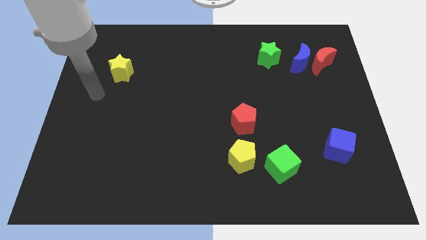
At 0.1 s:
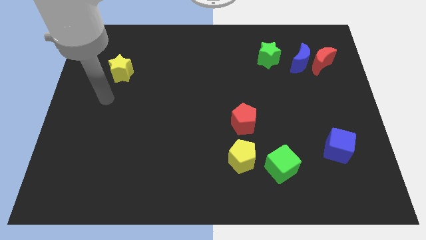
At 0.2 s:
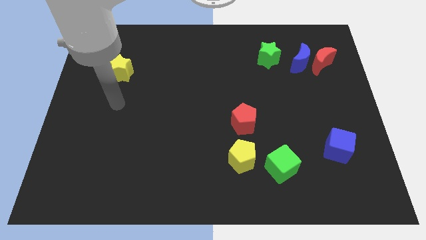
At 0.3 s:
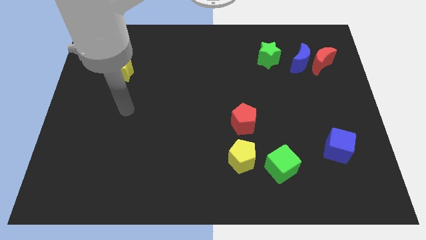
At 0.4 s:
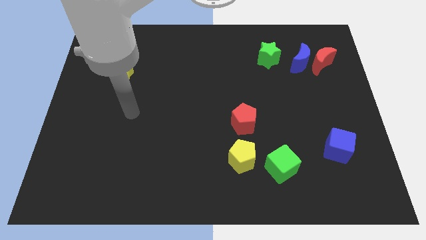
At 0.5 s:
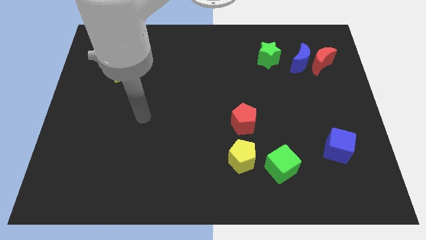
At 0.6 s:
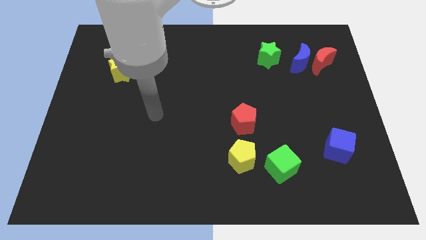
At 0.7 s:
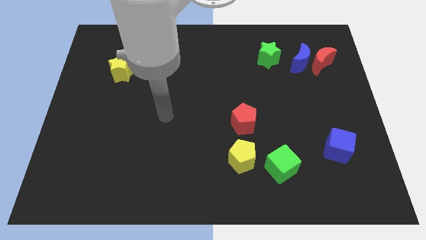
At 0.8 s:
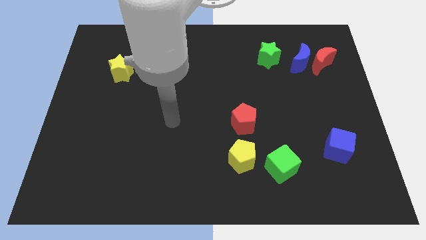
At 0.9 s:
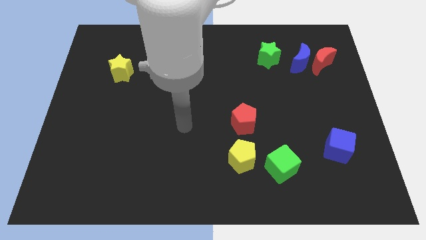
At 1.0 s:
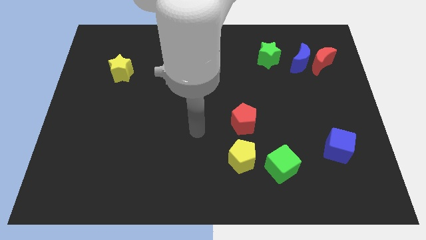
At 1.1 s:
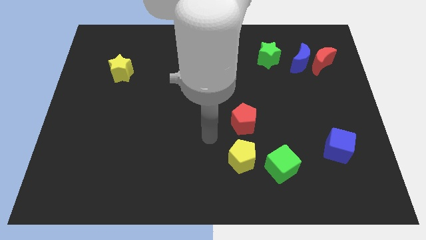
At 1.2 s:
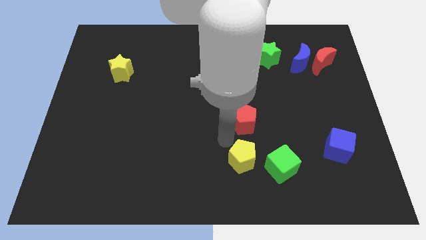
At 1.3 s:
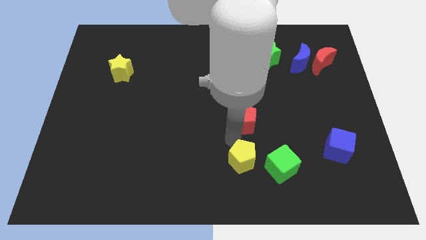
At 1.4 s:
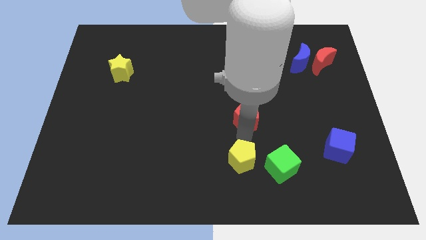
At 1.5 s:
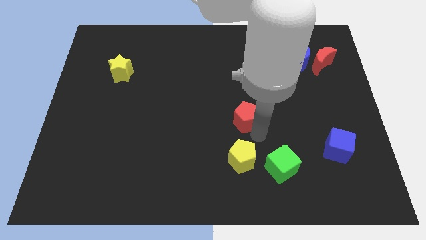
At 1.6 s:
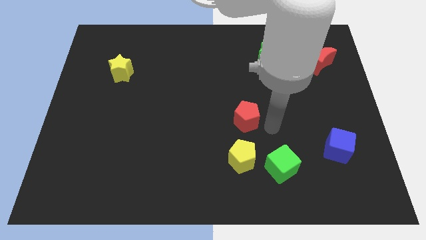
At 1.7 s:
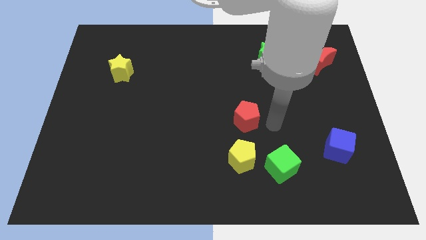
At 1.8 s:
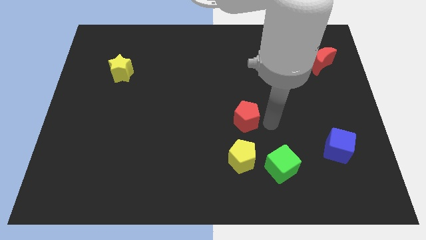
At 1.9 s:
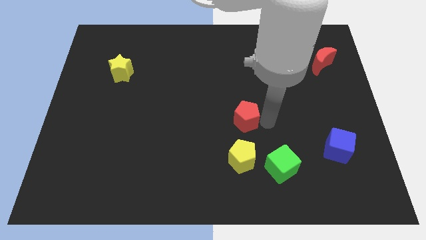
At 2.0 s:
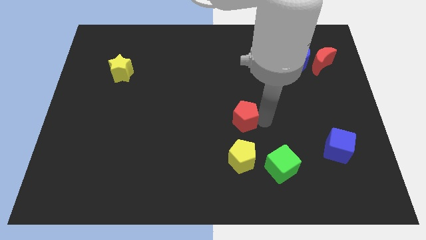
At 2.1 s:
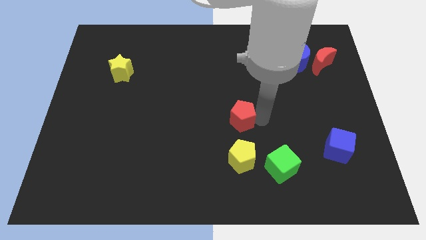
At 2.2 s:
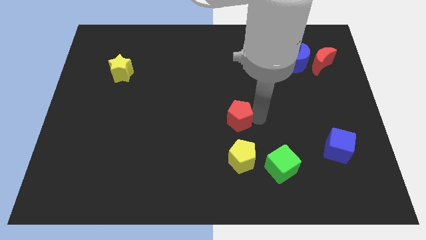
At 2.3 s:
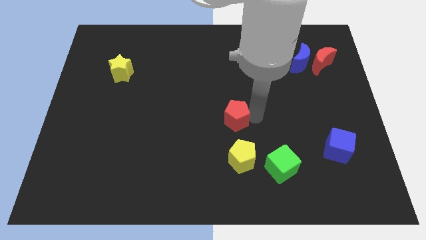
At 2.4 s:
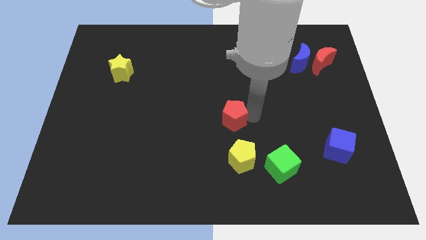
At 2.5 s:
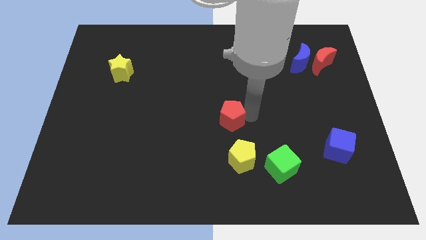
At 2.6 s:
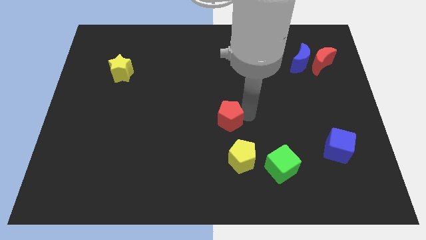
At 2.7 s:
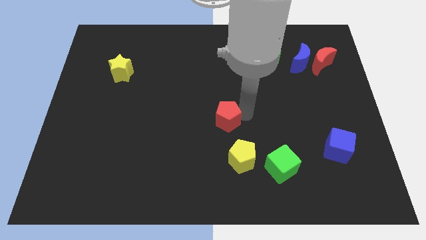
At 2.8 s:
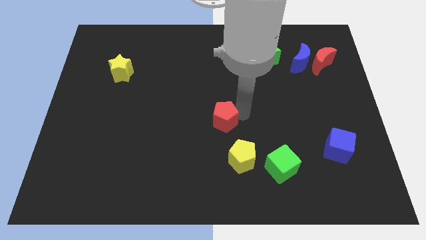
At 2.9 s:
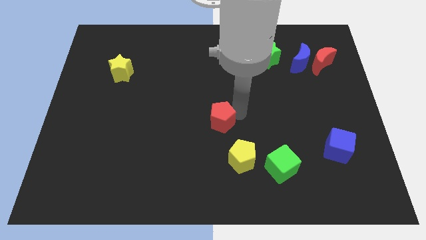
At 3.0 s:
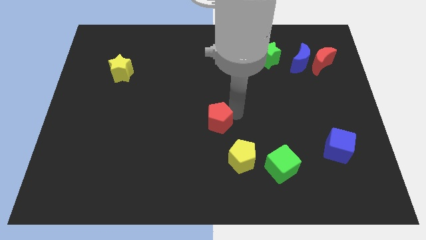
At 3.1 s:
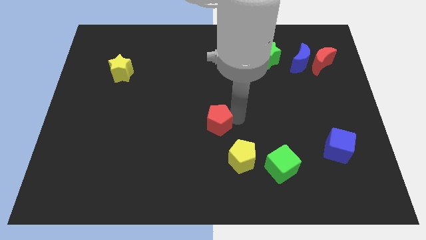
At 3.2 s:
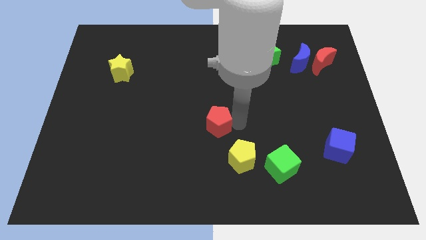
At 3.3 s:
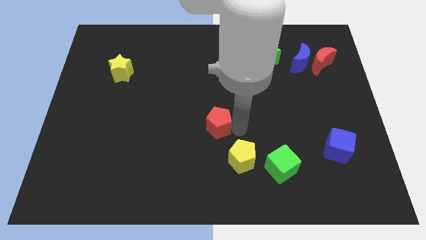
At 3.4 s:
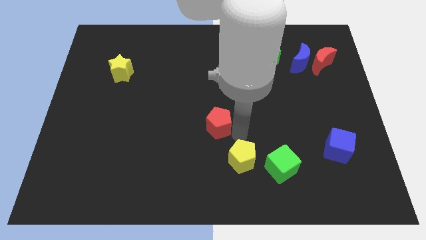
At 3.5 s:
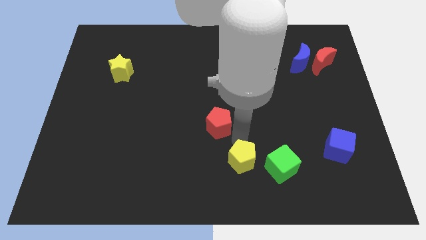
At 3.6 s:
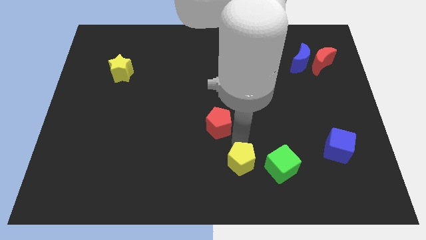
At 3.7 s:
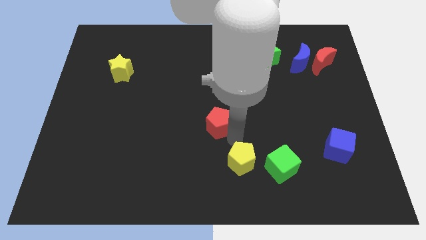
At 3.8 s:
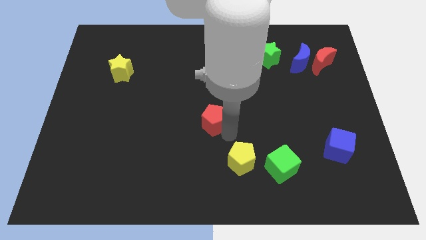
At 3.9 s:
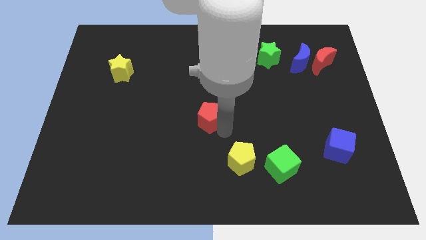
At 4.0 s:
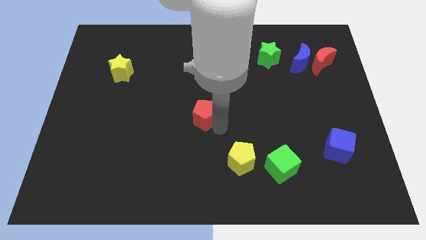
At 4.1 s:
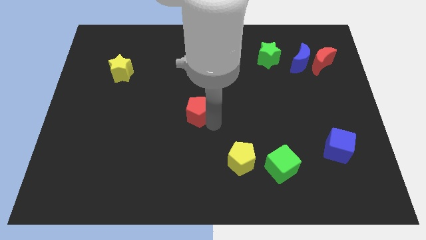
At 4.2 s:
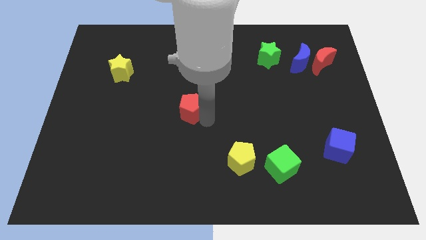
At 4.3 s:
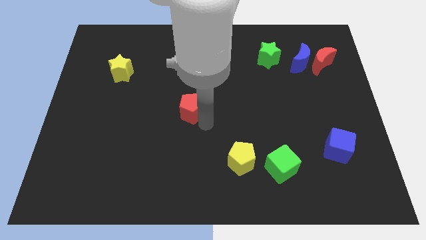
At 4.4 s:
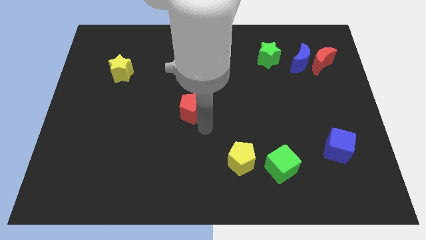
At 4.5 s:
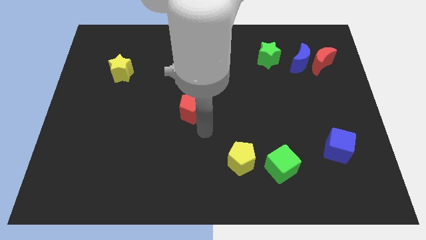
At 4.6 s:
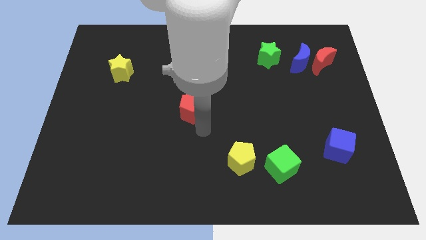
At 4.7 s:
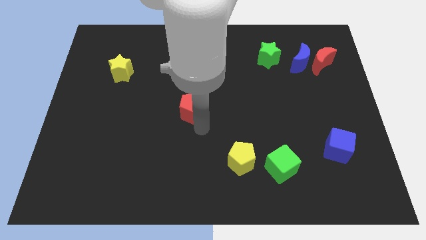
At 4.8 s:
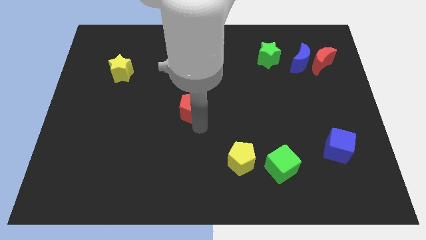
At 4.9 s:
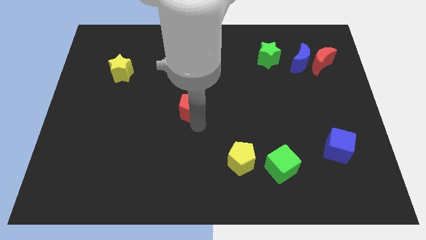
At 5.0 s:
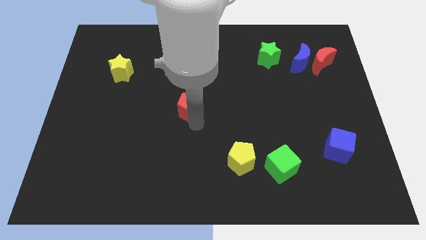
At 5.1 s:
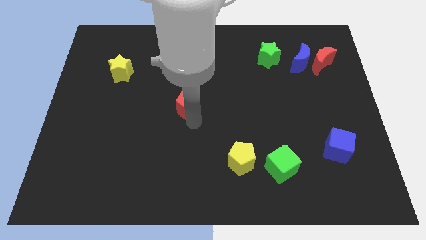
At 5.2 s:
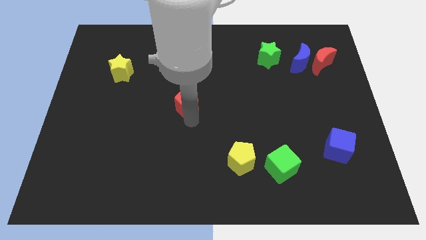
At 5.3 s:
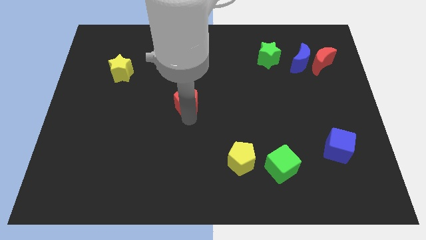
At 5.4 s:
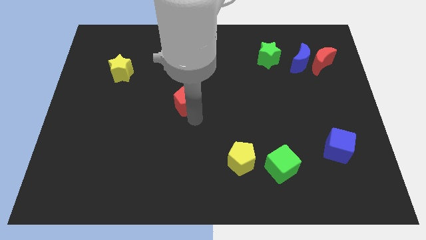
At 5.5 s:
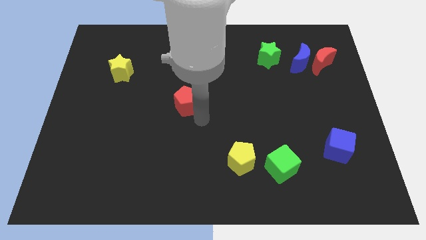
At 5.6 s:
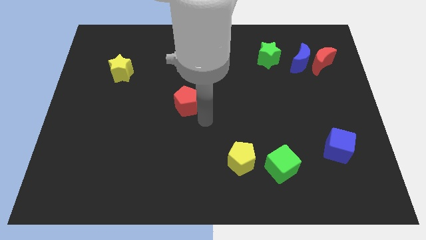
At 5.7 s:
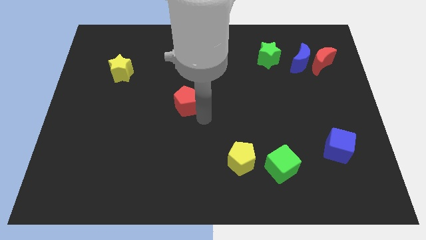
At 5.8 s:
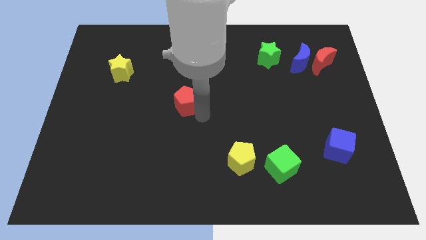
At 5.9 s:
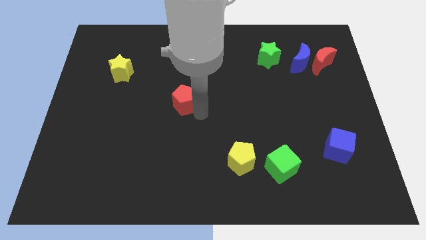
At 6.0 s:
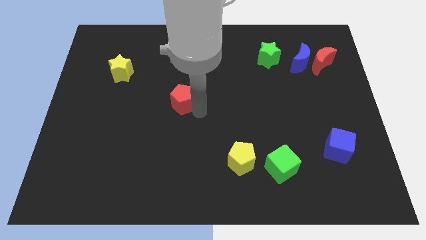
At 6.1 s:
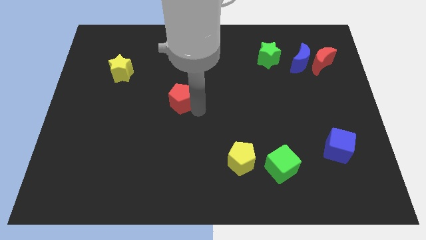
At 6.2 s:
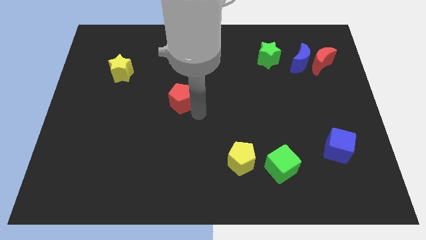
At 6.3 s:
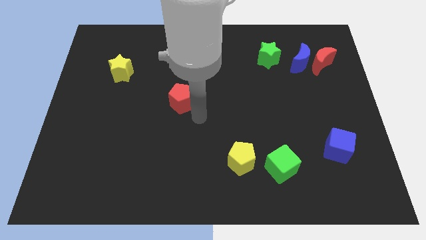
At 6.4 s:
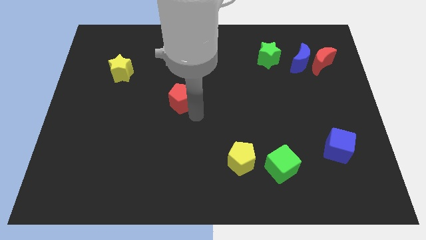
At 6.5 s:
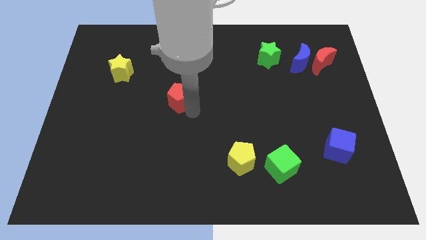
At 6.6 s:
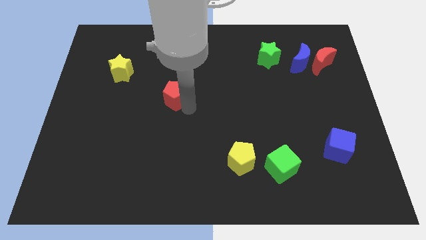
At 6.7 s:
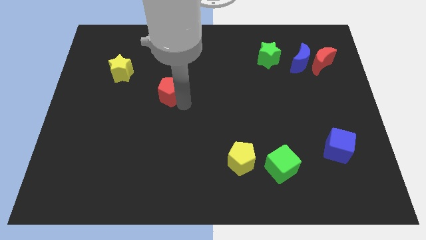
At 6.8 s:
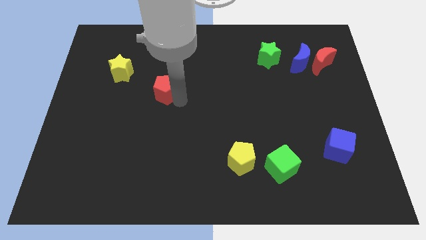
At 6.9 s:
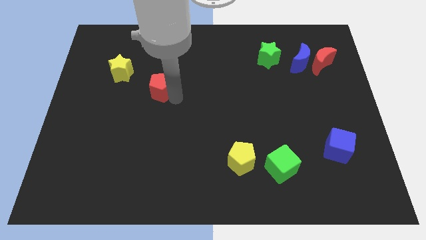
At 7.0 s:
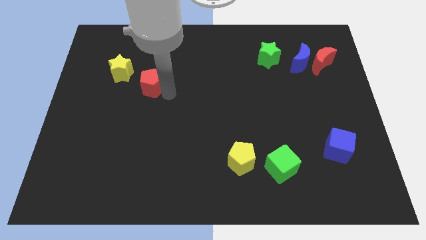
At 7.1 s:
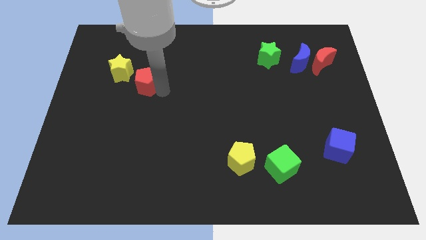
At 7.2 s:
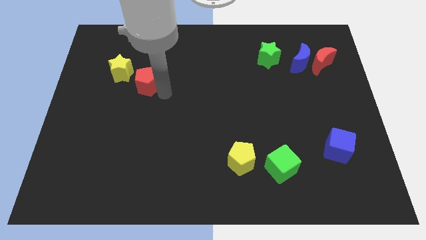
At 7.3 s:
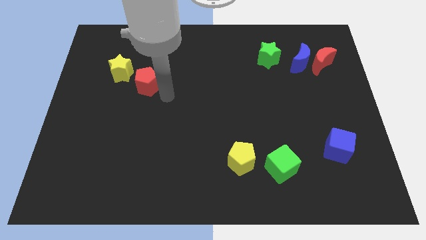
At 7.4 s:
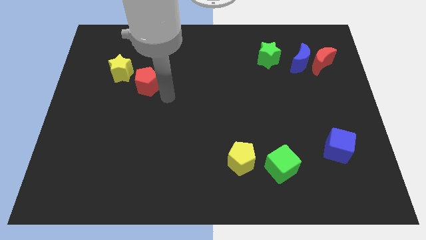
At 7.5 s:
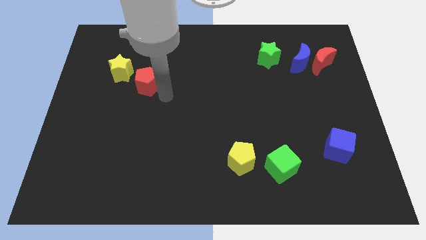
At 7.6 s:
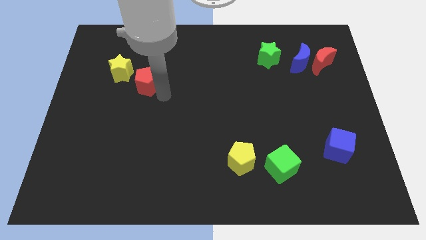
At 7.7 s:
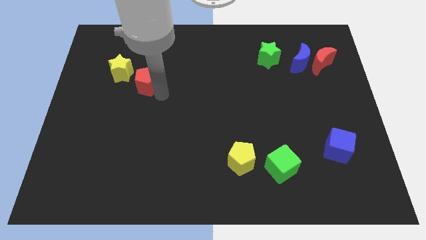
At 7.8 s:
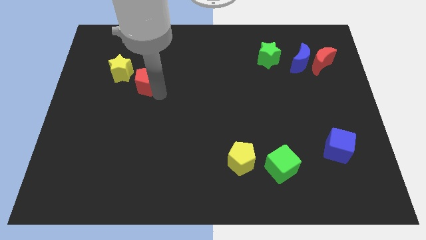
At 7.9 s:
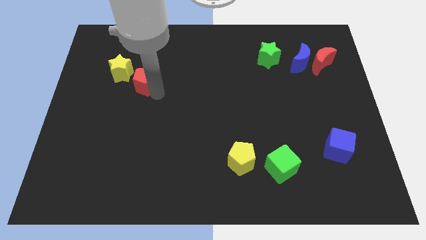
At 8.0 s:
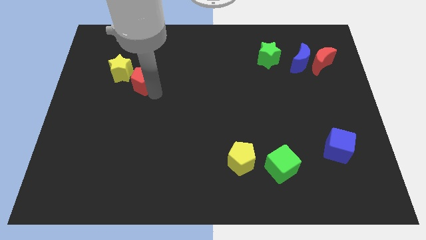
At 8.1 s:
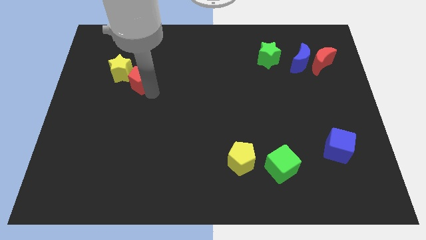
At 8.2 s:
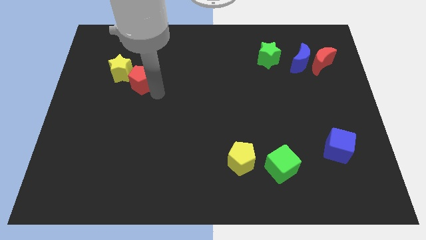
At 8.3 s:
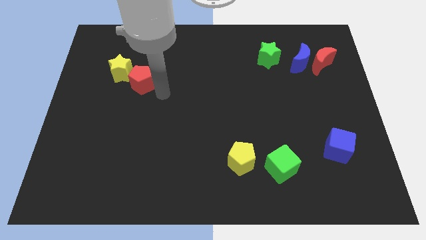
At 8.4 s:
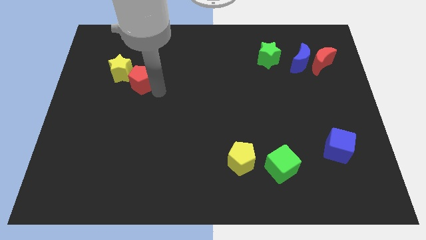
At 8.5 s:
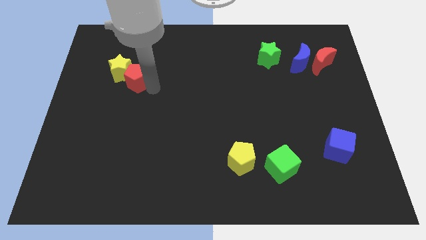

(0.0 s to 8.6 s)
put the red pentagon close to the yellow star

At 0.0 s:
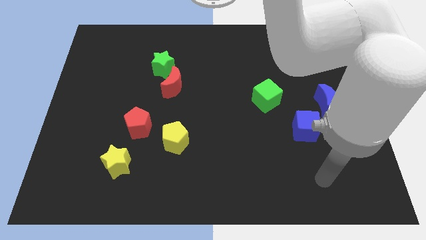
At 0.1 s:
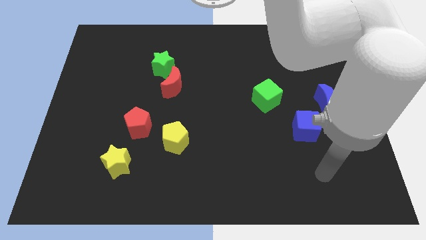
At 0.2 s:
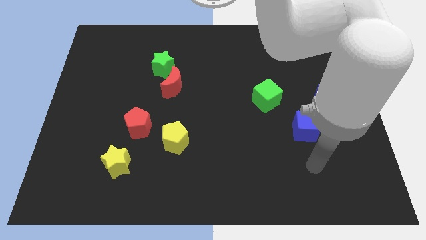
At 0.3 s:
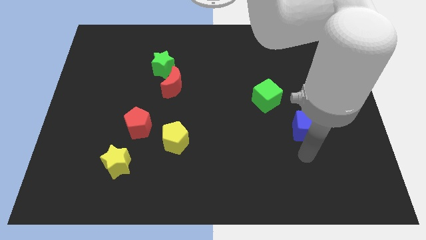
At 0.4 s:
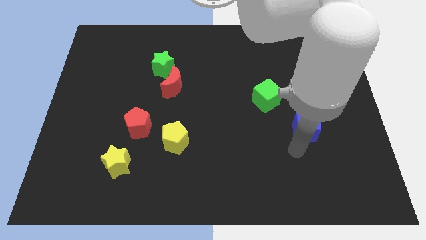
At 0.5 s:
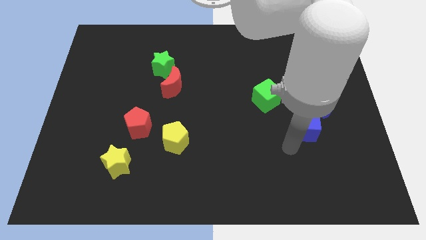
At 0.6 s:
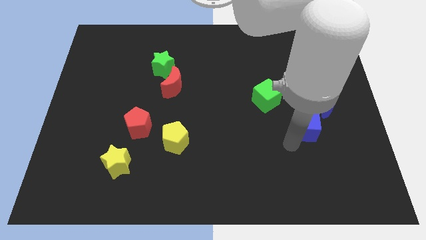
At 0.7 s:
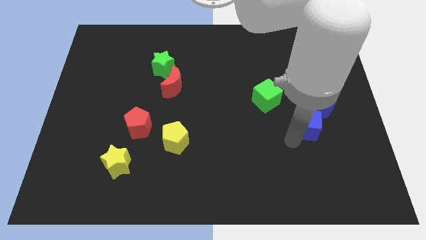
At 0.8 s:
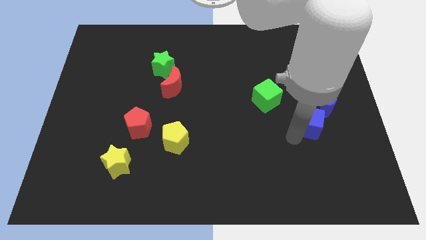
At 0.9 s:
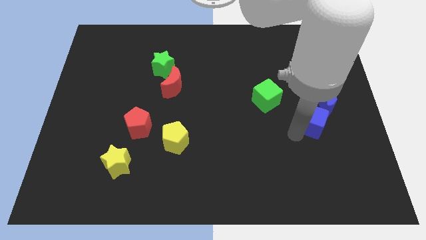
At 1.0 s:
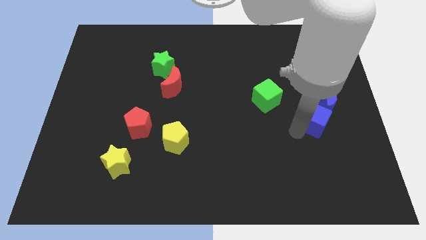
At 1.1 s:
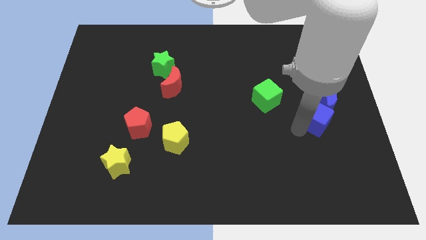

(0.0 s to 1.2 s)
push the blue cube next to the blue moon
